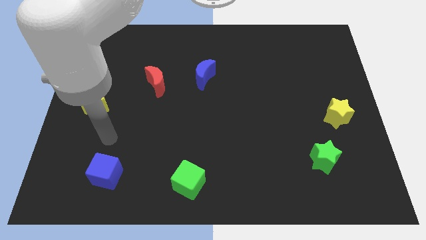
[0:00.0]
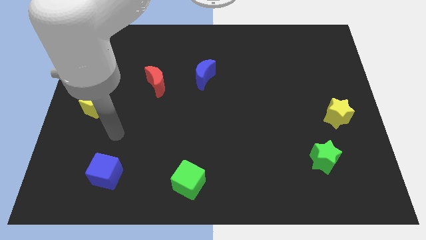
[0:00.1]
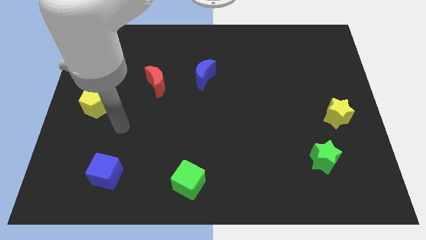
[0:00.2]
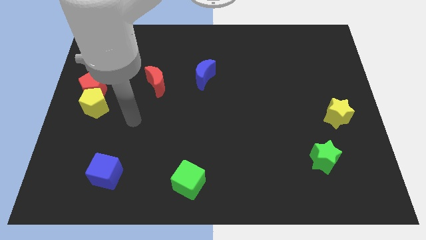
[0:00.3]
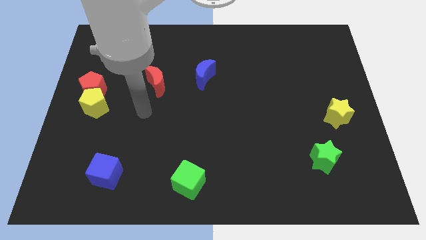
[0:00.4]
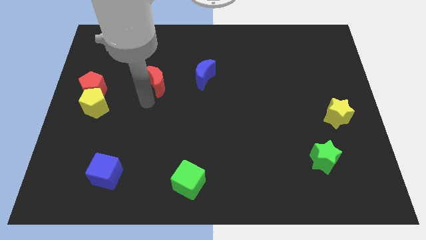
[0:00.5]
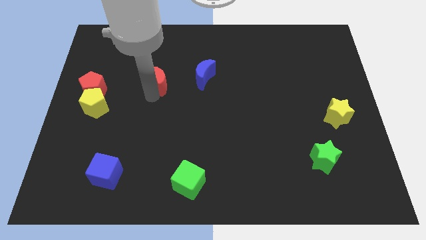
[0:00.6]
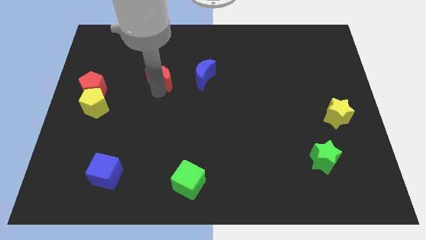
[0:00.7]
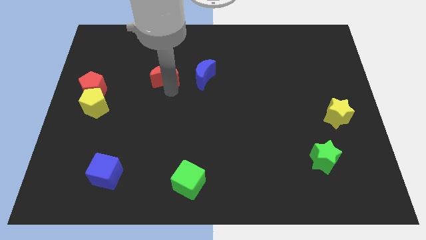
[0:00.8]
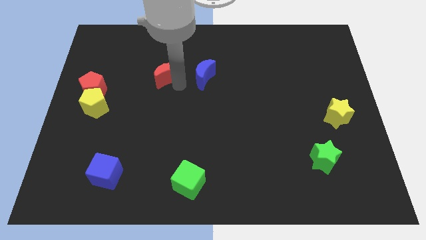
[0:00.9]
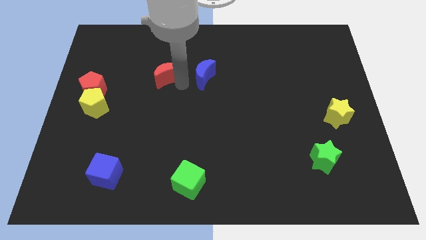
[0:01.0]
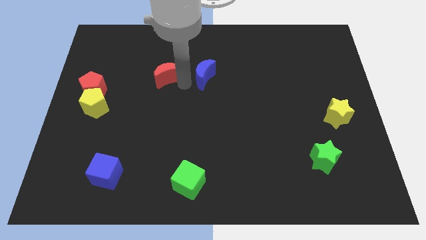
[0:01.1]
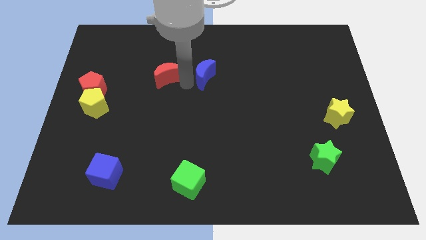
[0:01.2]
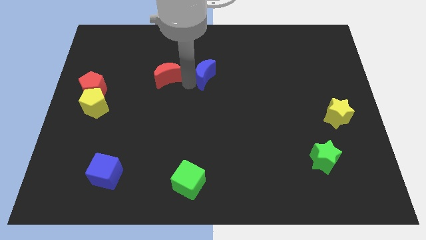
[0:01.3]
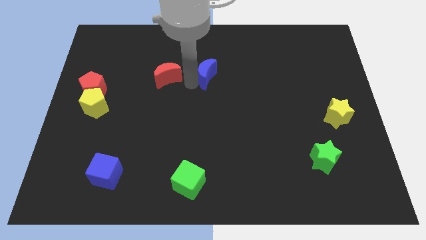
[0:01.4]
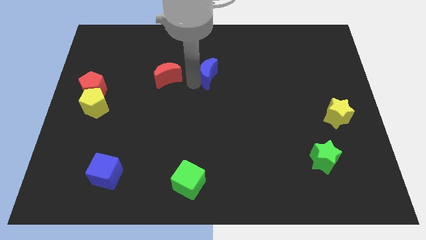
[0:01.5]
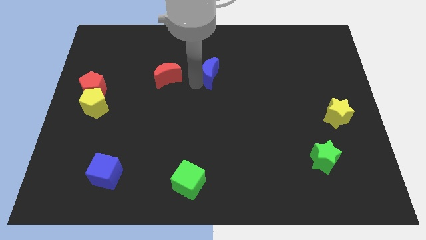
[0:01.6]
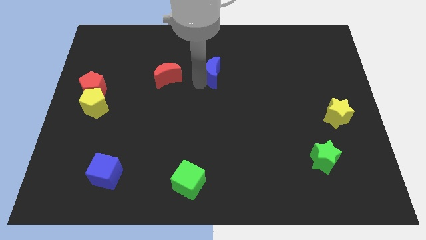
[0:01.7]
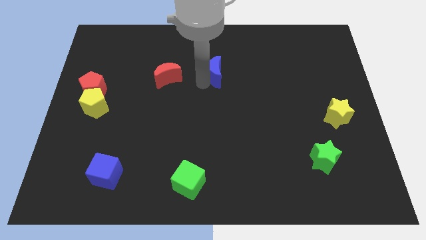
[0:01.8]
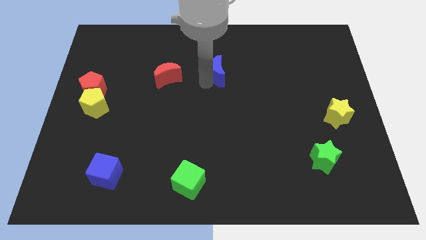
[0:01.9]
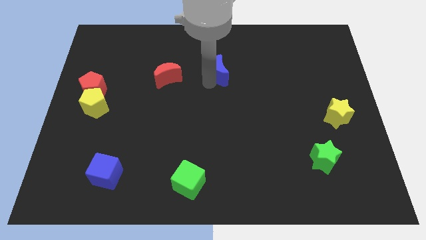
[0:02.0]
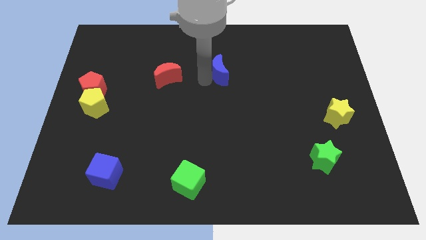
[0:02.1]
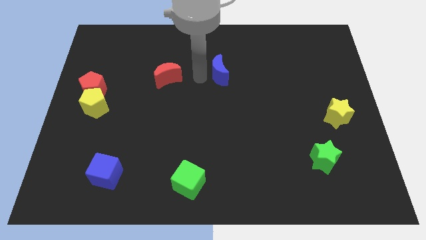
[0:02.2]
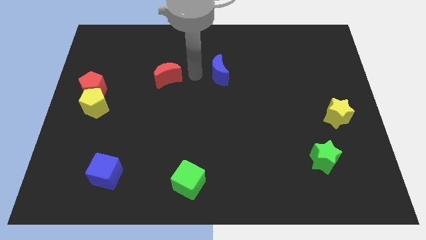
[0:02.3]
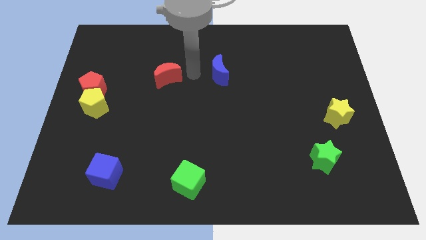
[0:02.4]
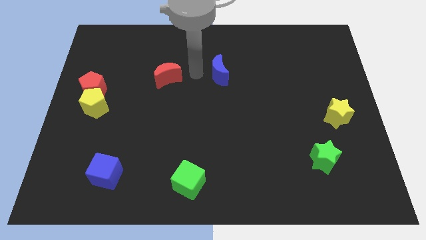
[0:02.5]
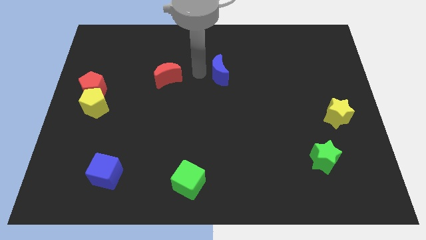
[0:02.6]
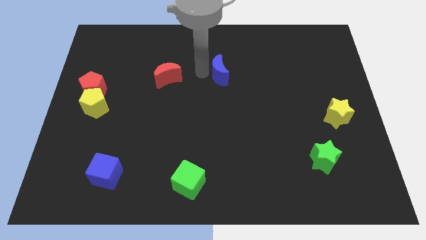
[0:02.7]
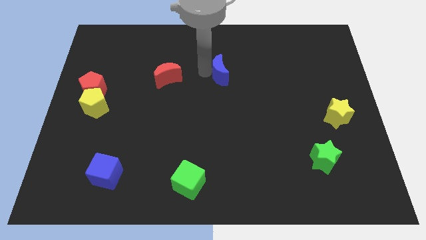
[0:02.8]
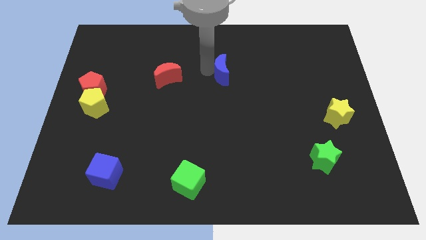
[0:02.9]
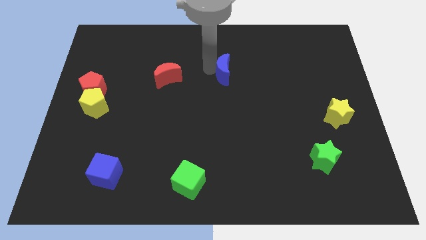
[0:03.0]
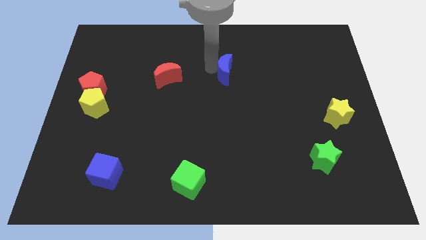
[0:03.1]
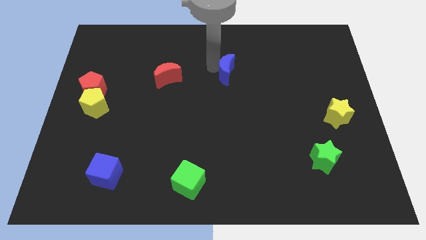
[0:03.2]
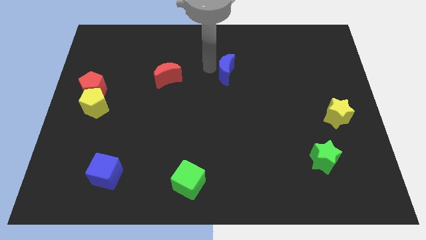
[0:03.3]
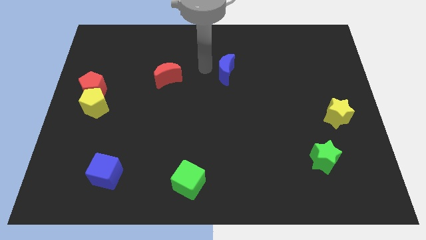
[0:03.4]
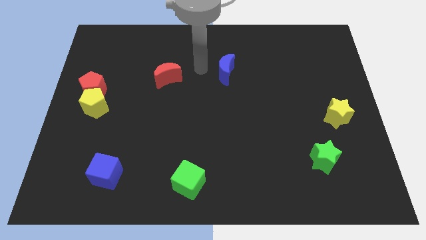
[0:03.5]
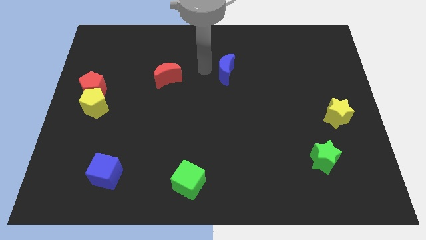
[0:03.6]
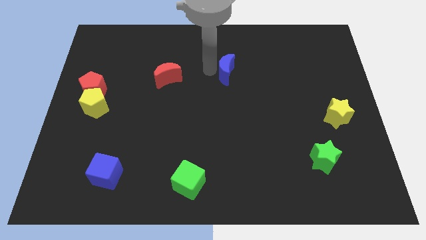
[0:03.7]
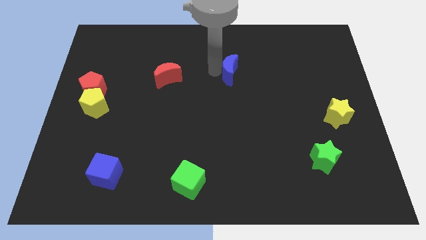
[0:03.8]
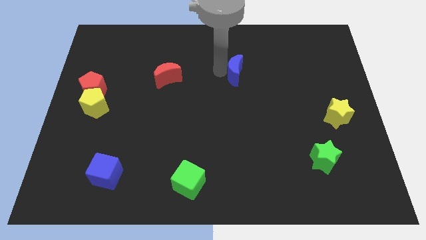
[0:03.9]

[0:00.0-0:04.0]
slightly move the blue moon right

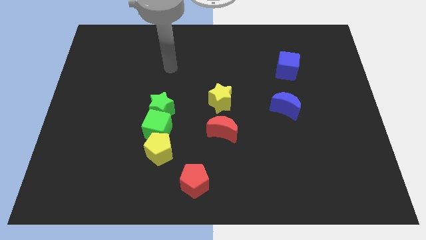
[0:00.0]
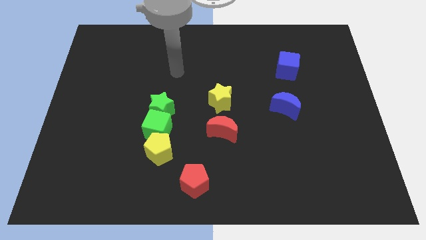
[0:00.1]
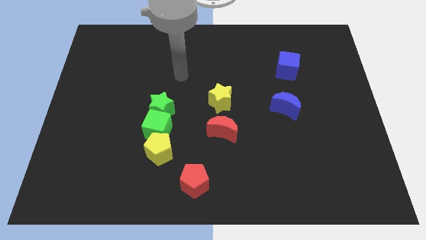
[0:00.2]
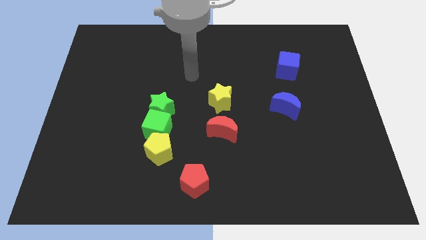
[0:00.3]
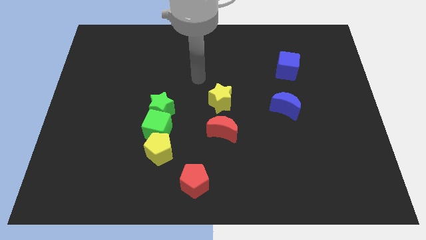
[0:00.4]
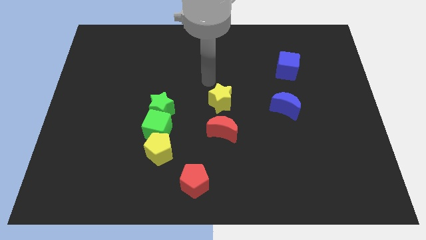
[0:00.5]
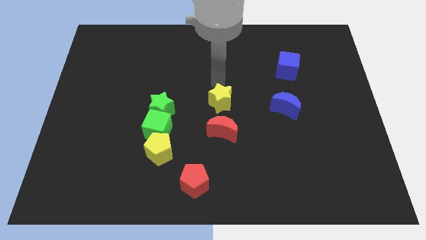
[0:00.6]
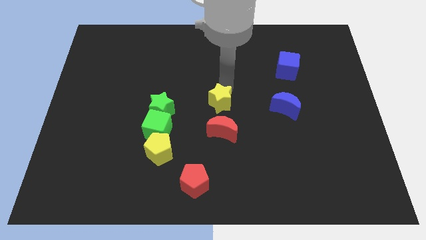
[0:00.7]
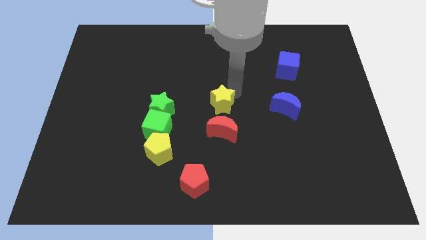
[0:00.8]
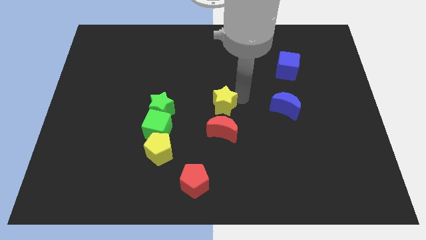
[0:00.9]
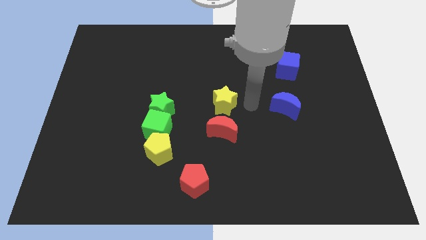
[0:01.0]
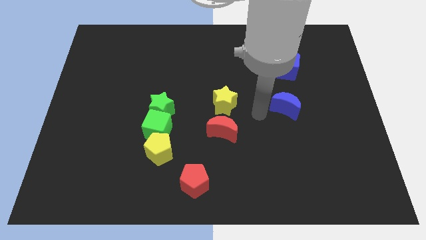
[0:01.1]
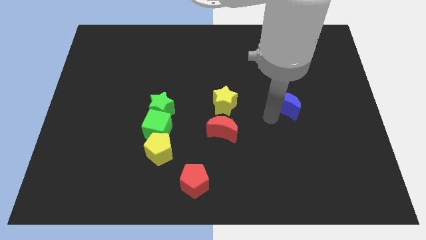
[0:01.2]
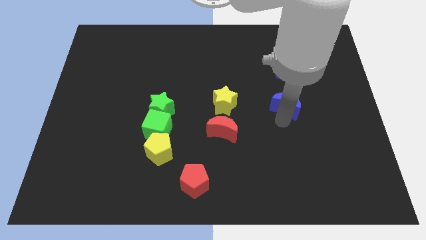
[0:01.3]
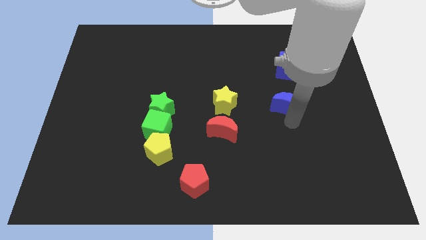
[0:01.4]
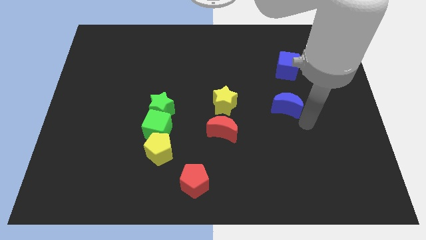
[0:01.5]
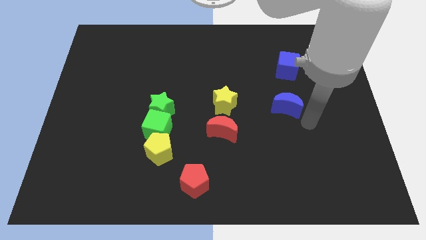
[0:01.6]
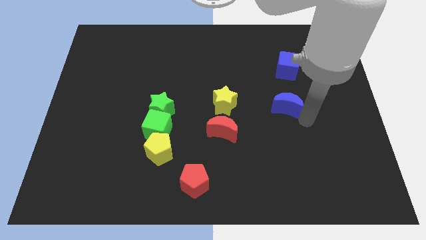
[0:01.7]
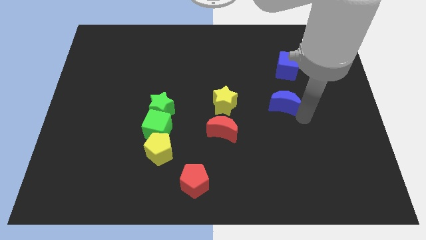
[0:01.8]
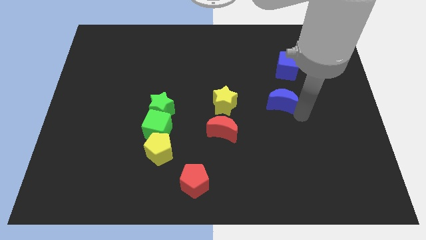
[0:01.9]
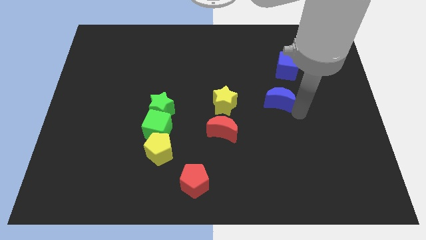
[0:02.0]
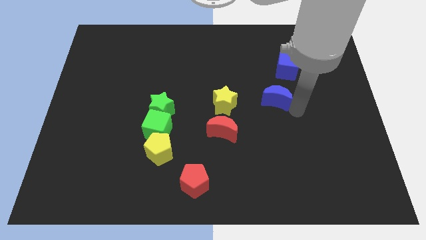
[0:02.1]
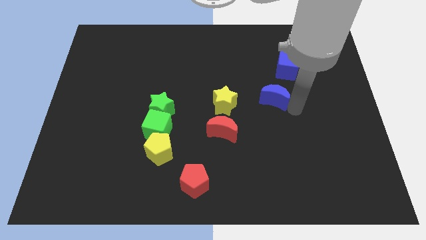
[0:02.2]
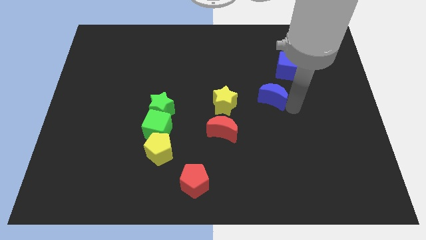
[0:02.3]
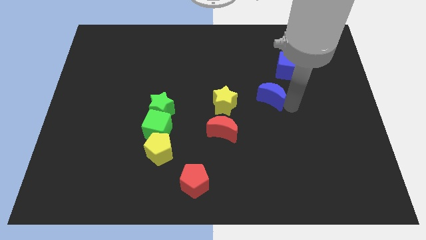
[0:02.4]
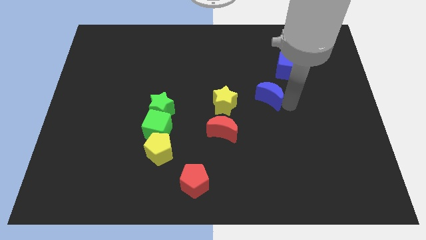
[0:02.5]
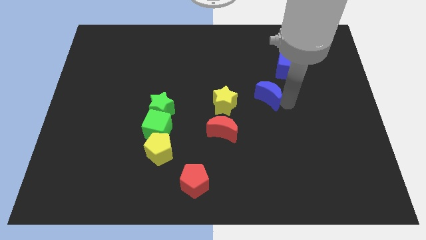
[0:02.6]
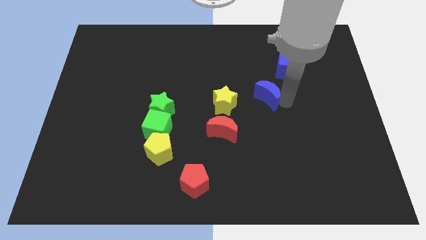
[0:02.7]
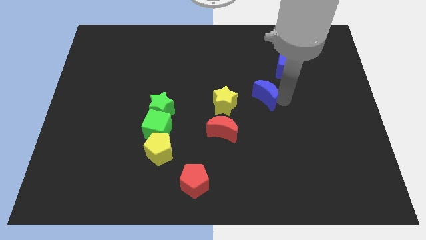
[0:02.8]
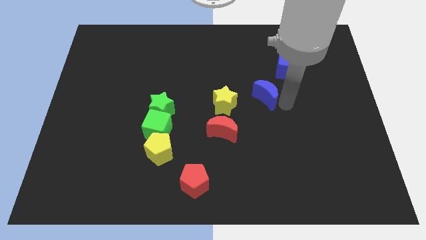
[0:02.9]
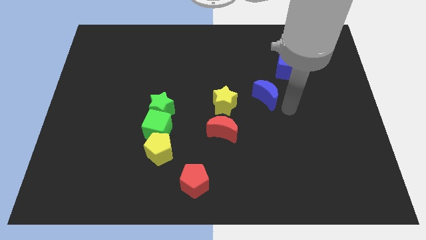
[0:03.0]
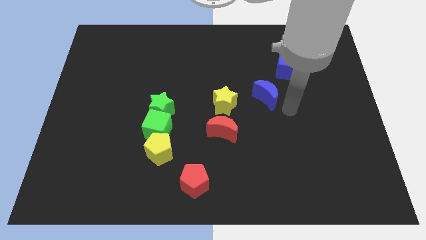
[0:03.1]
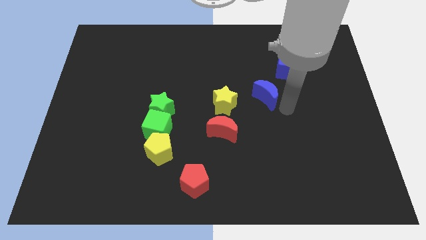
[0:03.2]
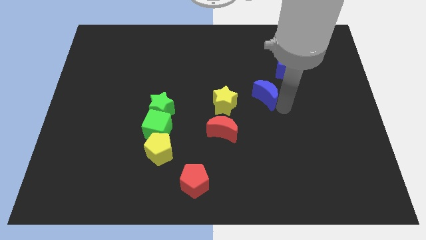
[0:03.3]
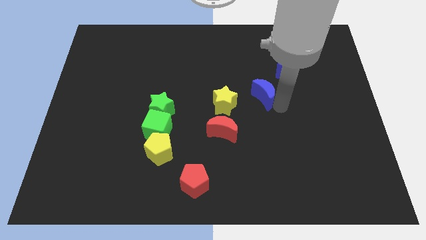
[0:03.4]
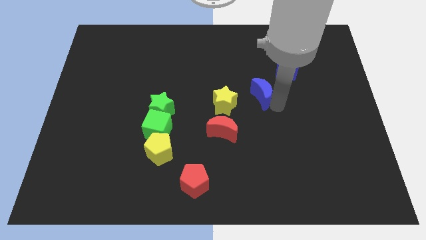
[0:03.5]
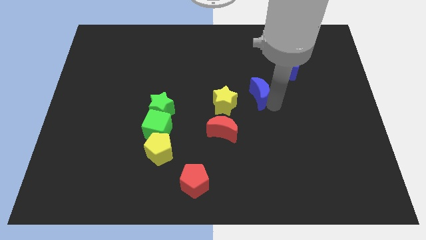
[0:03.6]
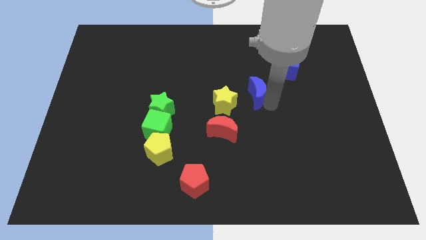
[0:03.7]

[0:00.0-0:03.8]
move the blue moon a little upwards and then to the left

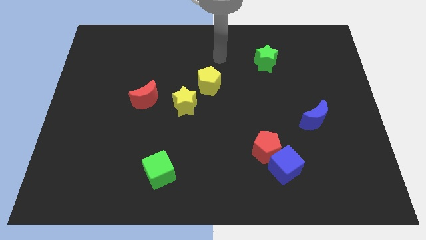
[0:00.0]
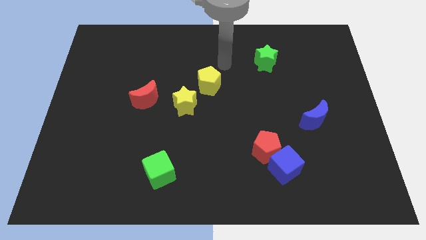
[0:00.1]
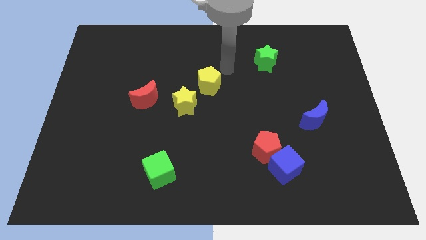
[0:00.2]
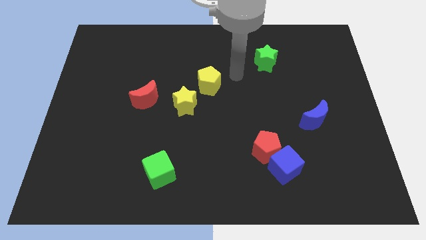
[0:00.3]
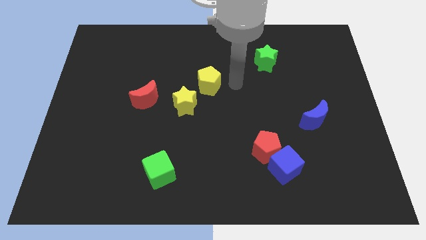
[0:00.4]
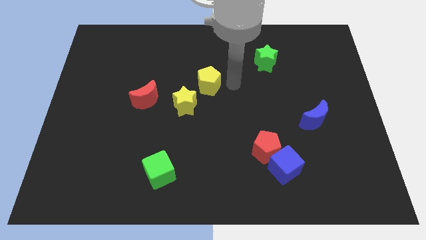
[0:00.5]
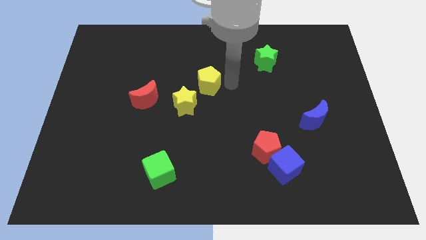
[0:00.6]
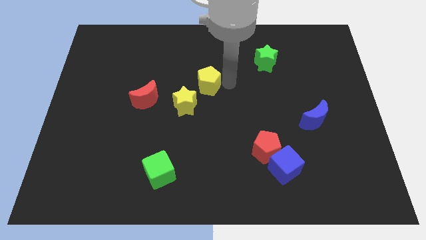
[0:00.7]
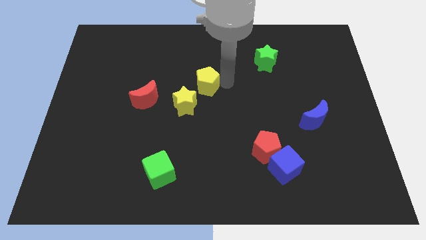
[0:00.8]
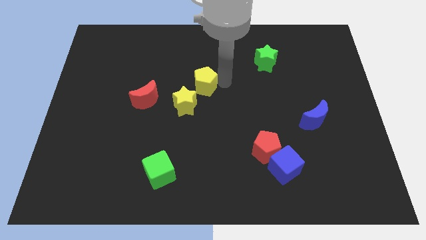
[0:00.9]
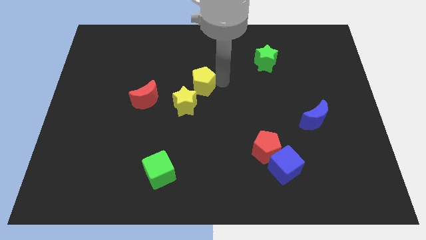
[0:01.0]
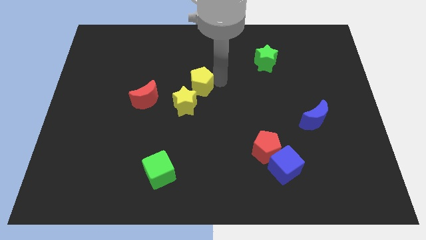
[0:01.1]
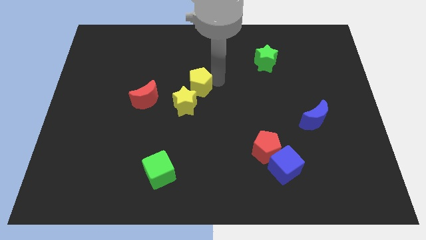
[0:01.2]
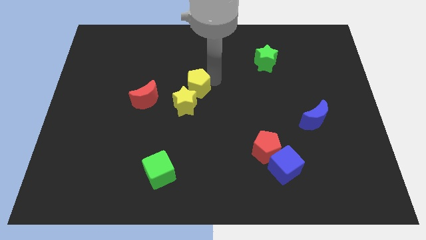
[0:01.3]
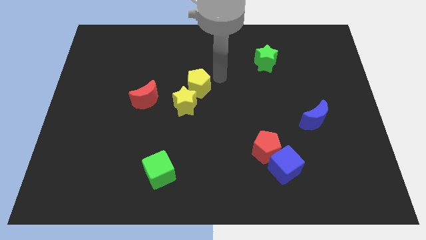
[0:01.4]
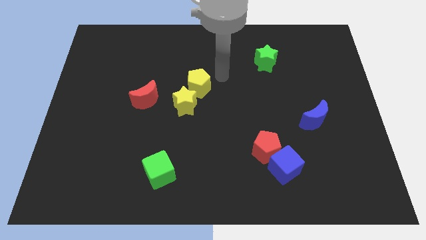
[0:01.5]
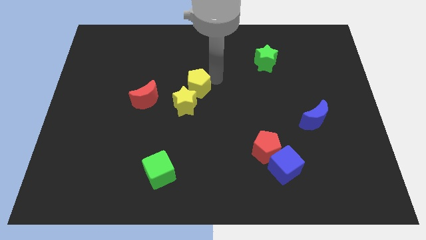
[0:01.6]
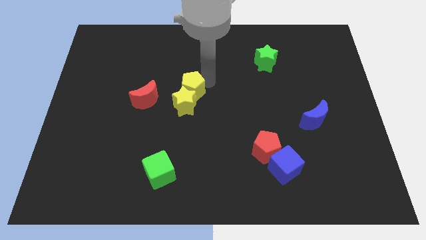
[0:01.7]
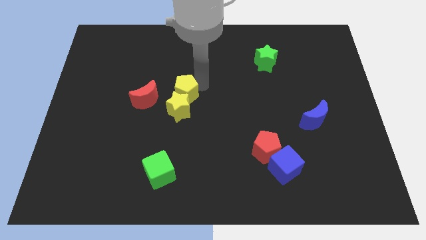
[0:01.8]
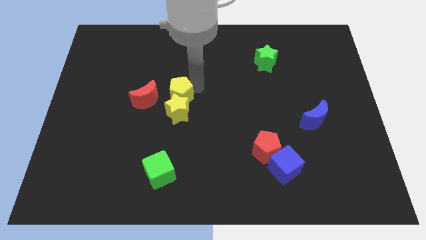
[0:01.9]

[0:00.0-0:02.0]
slightly slide the yellow pentagon down and to the left
